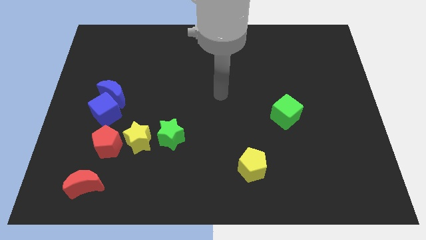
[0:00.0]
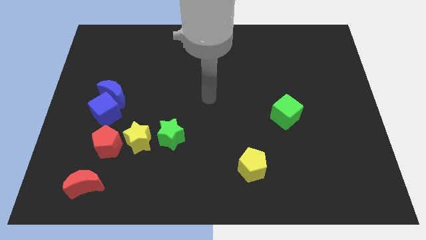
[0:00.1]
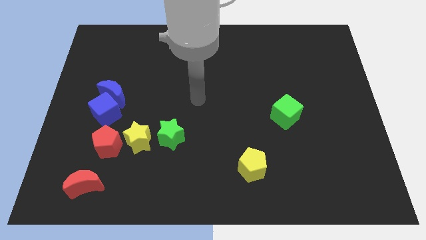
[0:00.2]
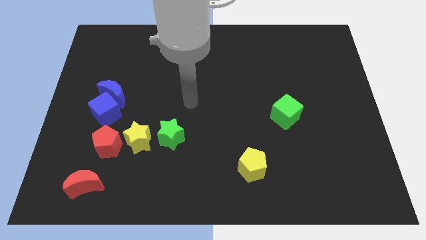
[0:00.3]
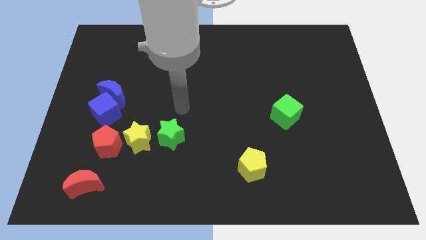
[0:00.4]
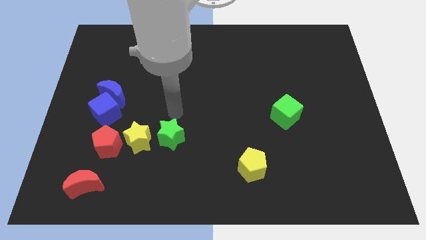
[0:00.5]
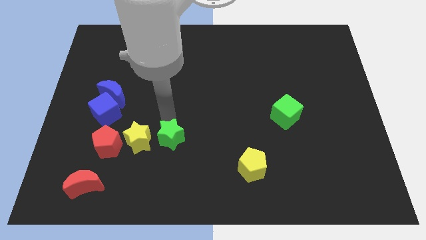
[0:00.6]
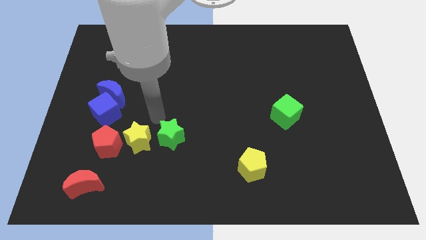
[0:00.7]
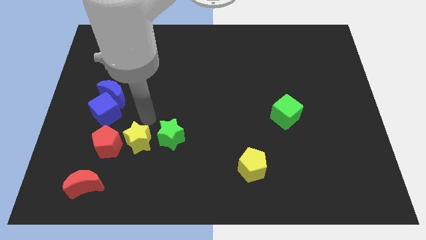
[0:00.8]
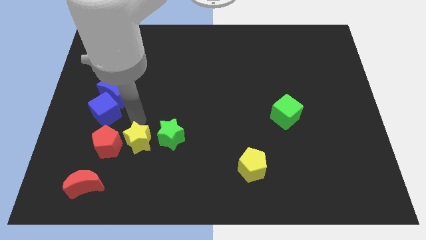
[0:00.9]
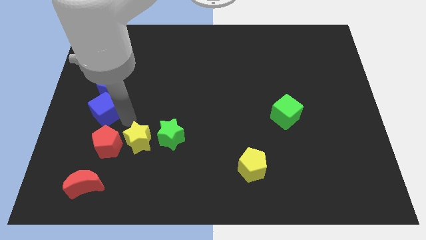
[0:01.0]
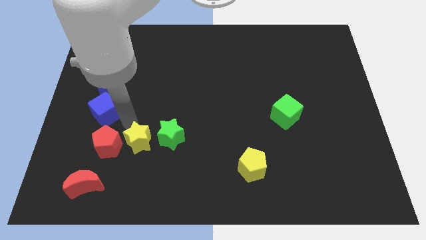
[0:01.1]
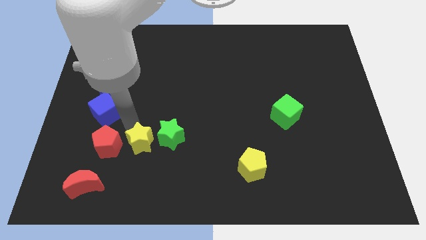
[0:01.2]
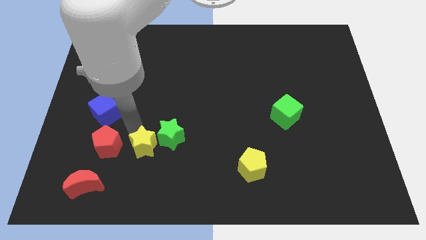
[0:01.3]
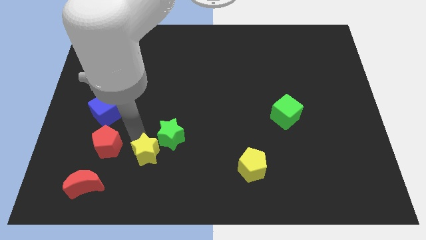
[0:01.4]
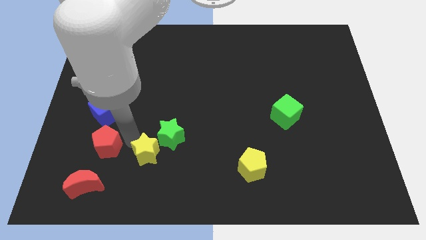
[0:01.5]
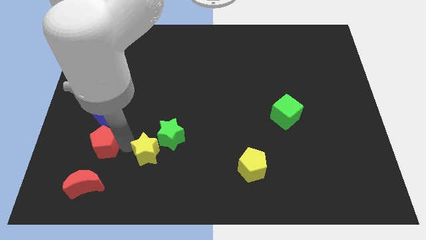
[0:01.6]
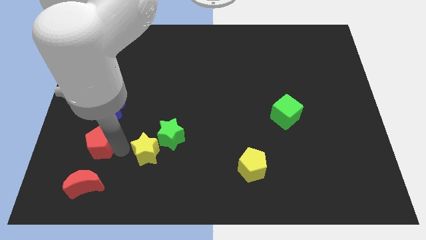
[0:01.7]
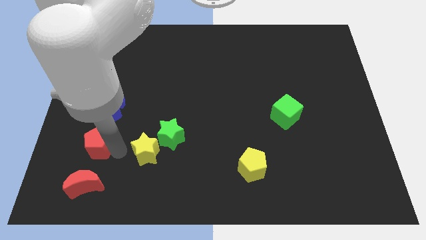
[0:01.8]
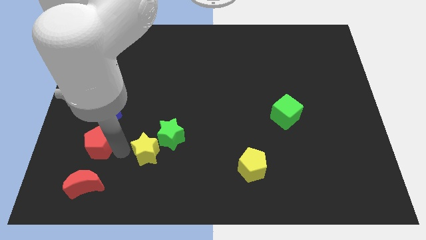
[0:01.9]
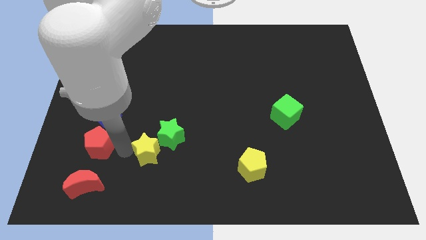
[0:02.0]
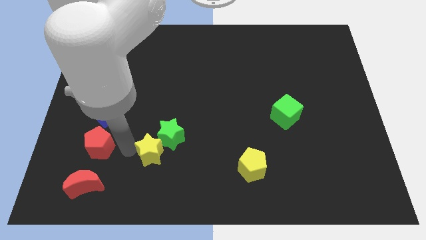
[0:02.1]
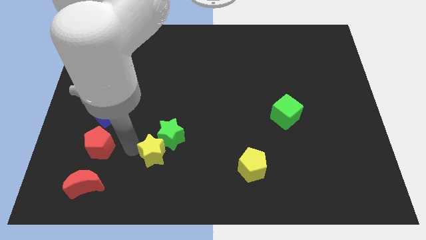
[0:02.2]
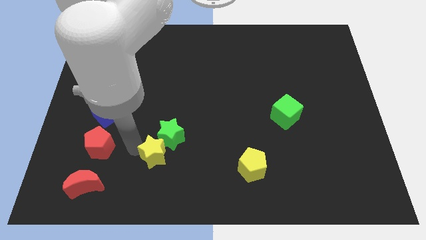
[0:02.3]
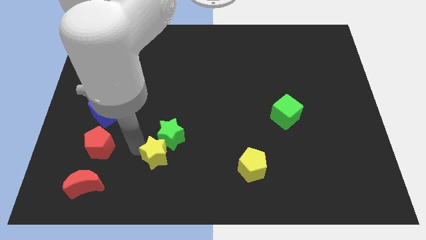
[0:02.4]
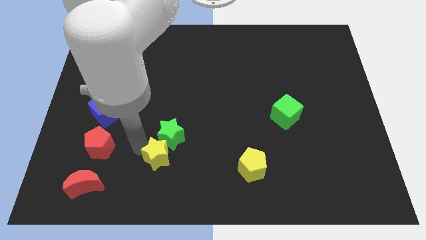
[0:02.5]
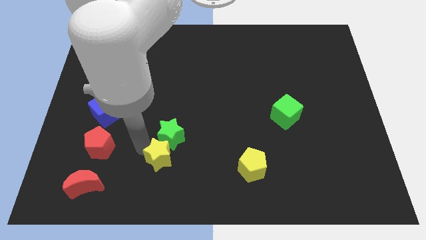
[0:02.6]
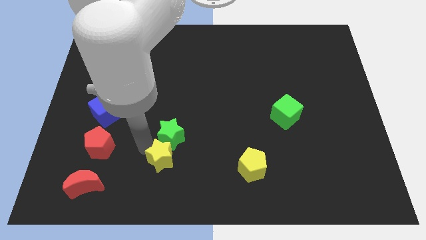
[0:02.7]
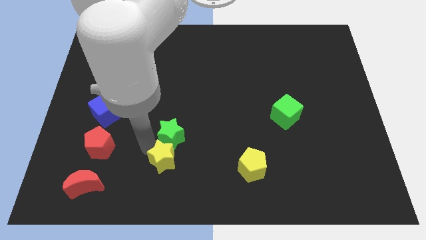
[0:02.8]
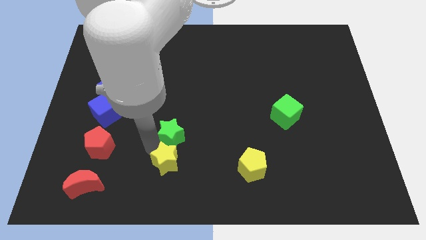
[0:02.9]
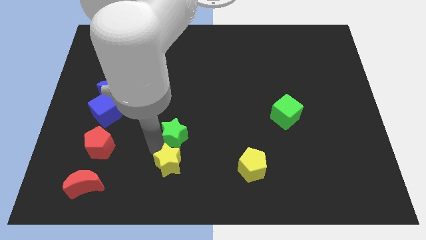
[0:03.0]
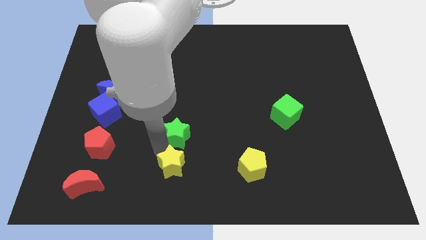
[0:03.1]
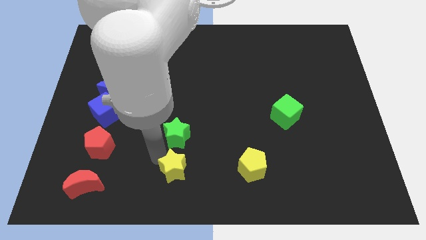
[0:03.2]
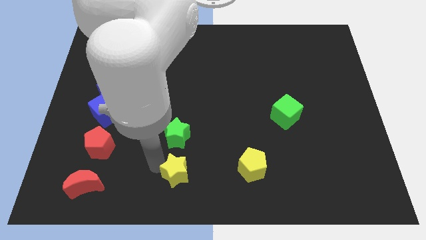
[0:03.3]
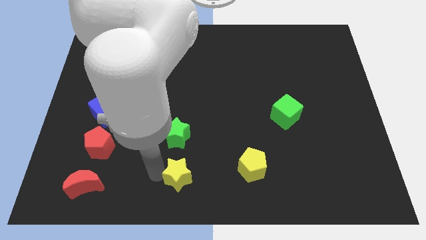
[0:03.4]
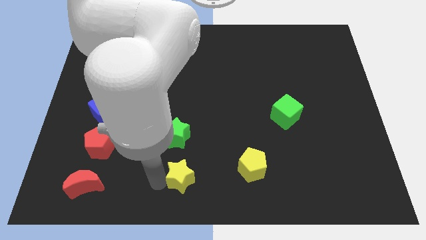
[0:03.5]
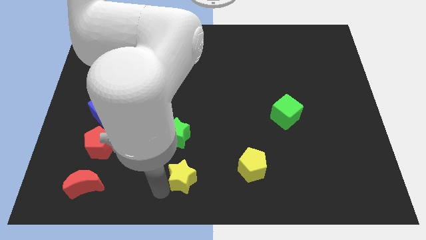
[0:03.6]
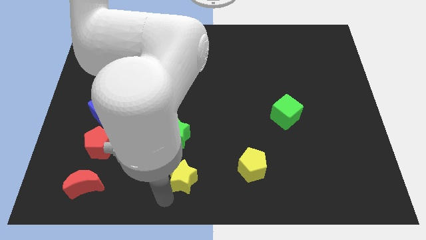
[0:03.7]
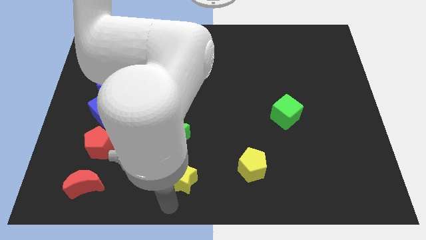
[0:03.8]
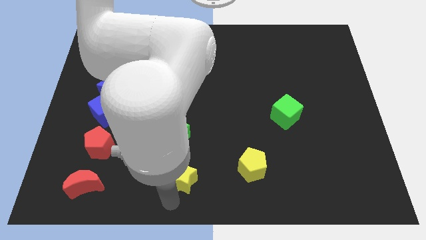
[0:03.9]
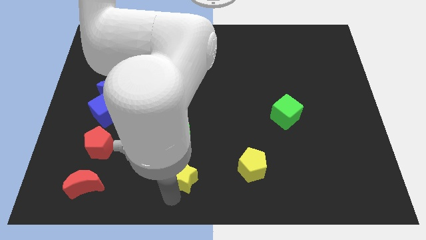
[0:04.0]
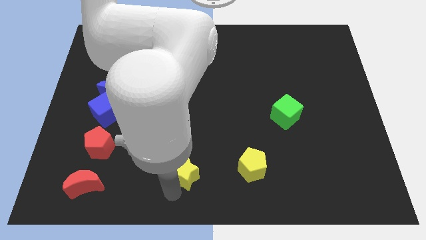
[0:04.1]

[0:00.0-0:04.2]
push the yellow star right slightly

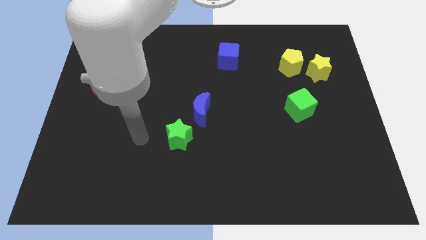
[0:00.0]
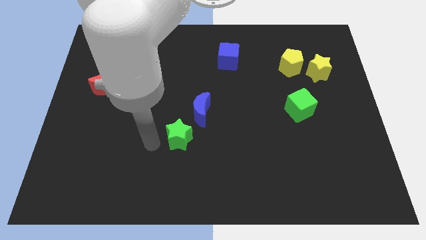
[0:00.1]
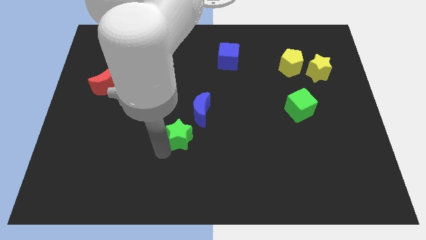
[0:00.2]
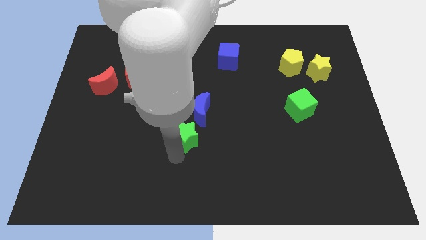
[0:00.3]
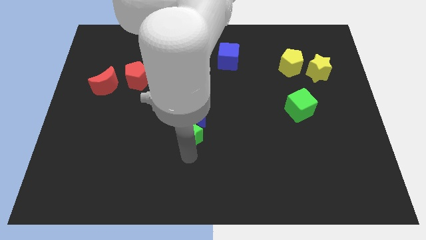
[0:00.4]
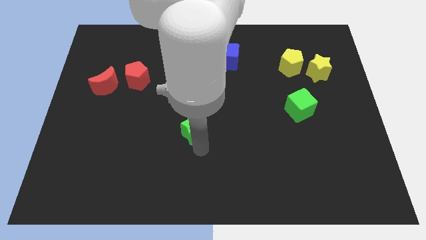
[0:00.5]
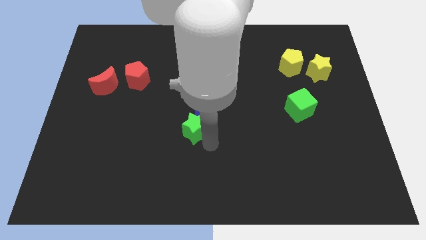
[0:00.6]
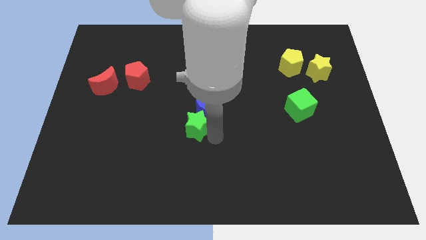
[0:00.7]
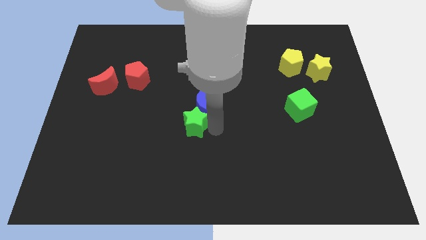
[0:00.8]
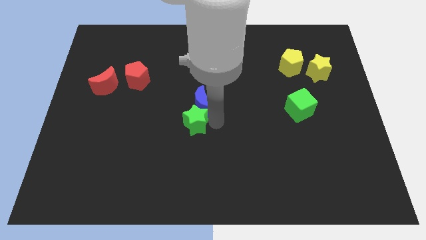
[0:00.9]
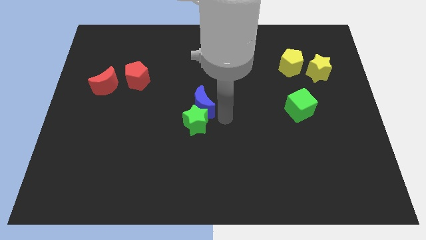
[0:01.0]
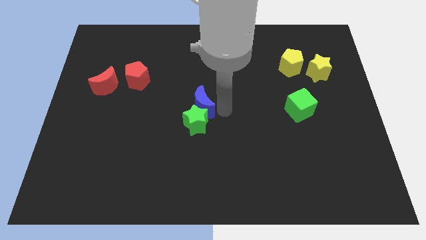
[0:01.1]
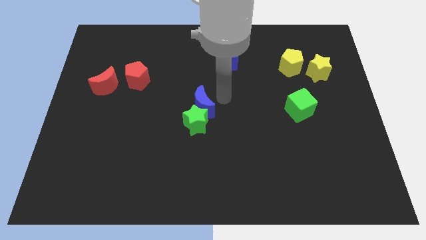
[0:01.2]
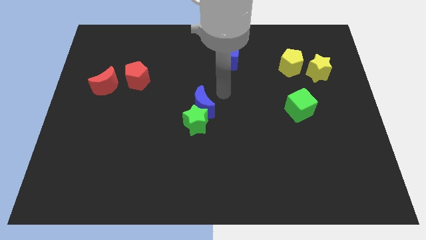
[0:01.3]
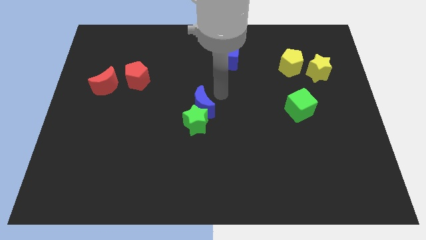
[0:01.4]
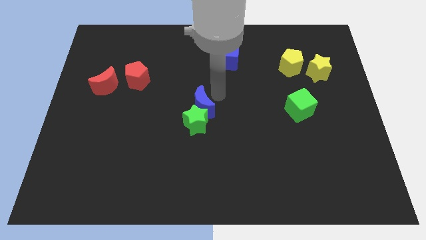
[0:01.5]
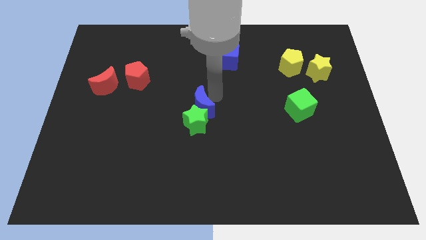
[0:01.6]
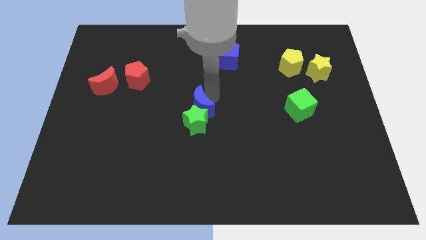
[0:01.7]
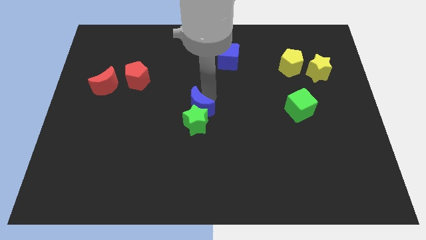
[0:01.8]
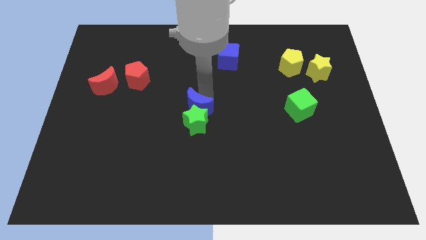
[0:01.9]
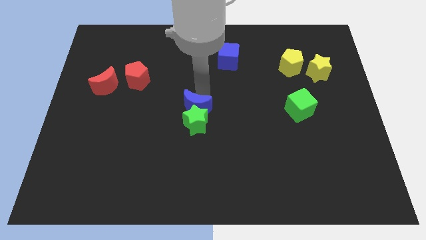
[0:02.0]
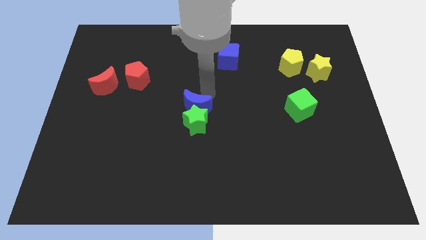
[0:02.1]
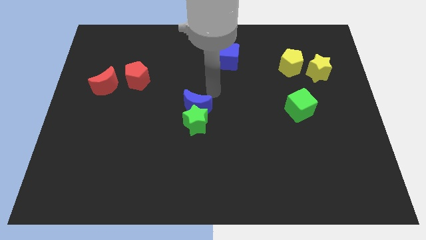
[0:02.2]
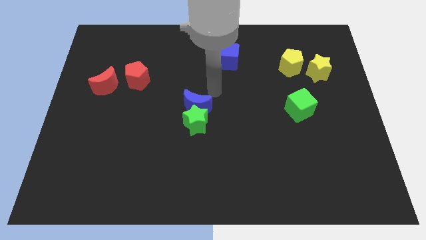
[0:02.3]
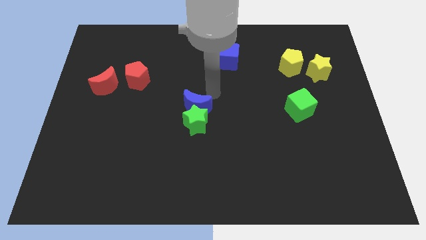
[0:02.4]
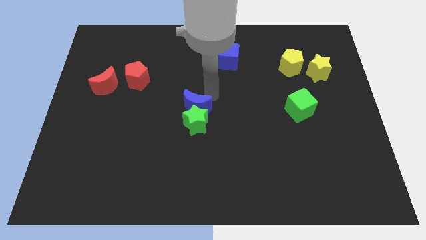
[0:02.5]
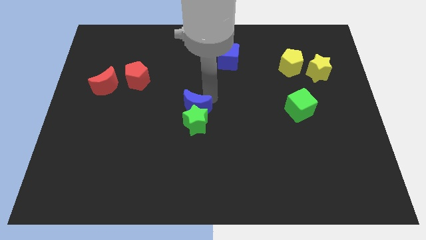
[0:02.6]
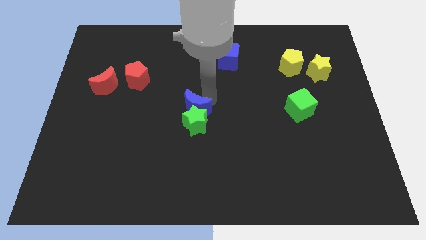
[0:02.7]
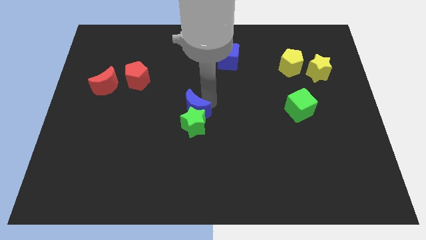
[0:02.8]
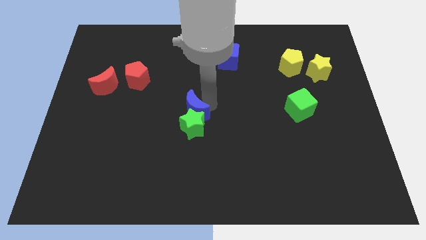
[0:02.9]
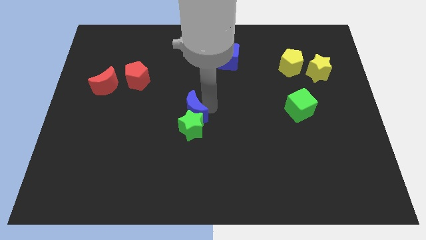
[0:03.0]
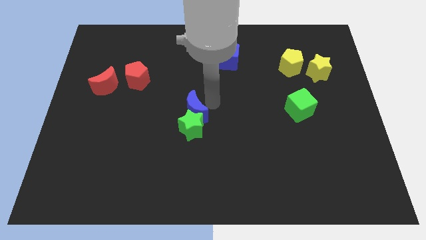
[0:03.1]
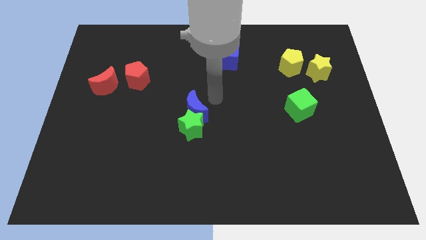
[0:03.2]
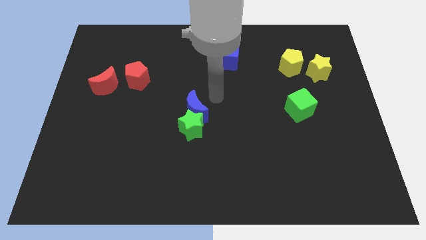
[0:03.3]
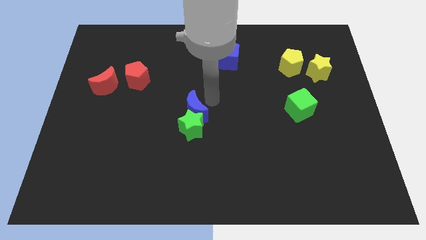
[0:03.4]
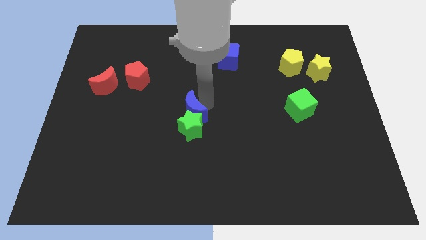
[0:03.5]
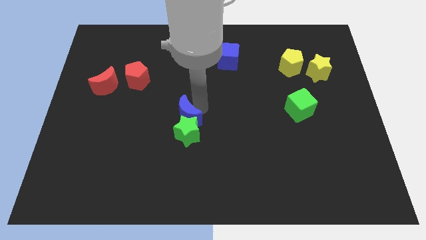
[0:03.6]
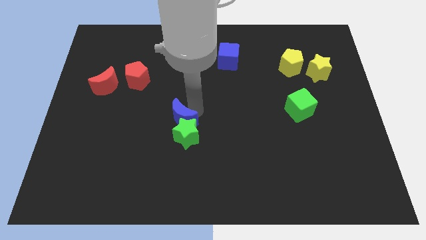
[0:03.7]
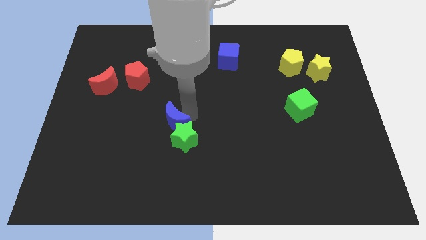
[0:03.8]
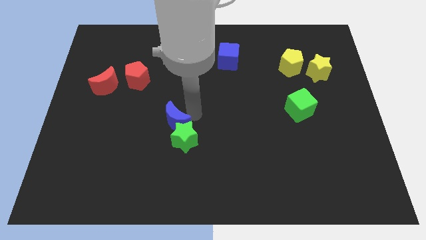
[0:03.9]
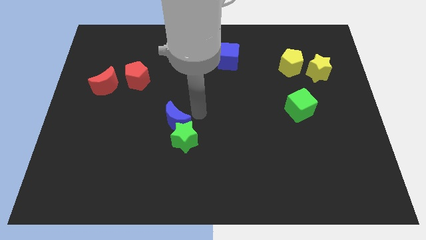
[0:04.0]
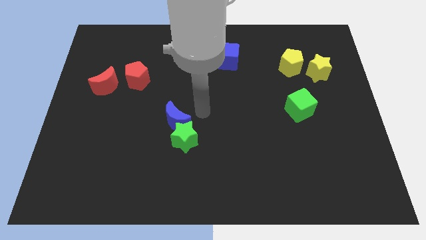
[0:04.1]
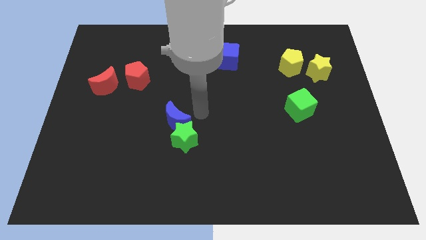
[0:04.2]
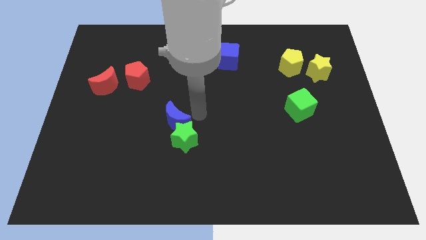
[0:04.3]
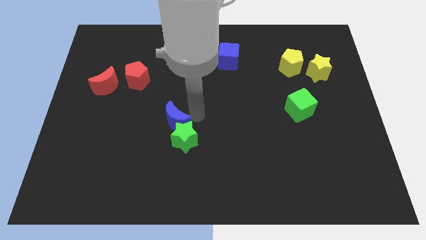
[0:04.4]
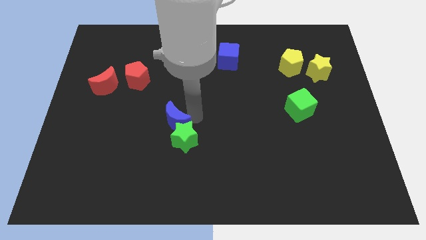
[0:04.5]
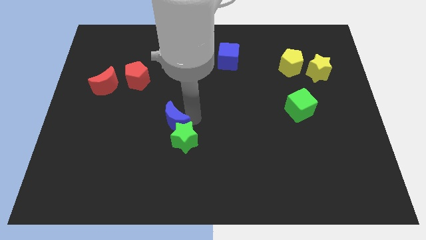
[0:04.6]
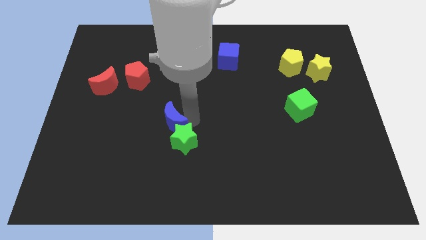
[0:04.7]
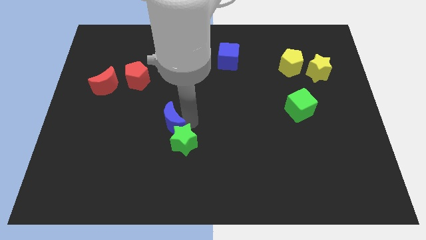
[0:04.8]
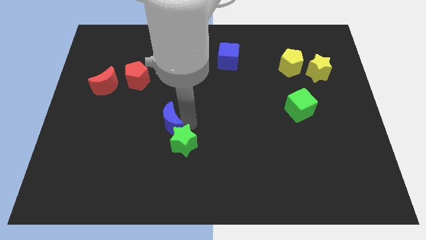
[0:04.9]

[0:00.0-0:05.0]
move the blue moon downwards and left a bit
